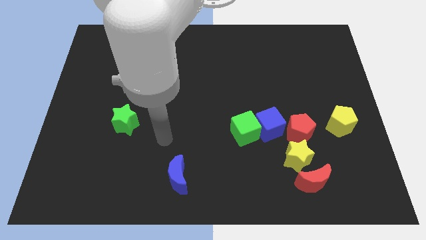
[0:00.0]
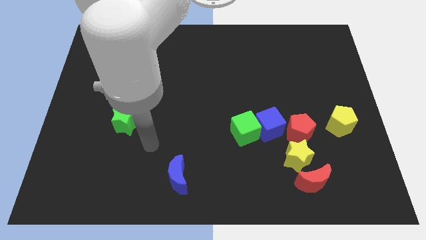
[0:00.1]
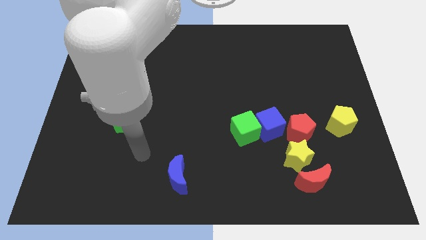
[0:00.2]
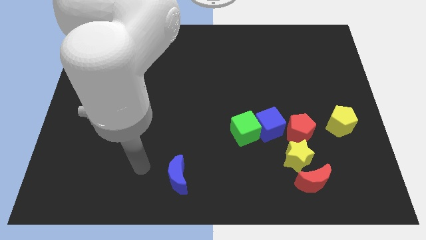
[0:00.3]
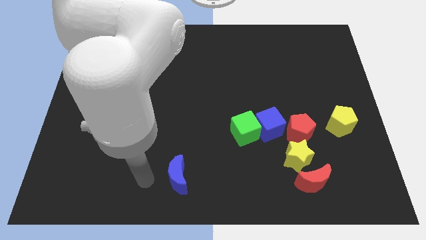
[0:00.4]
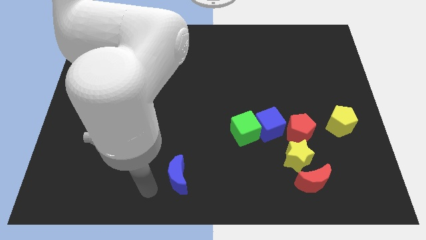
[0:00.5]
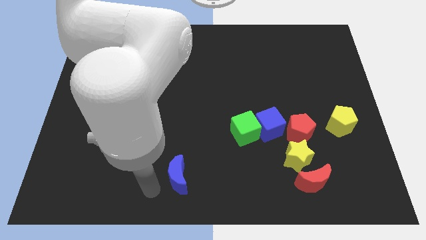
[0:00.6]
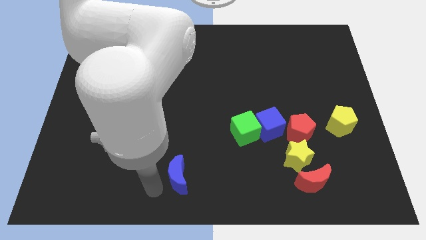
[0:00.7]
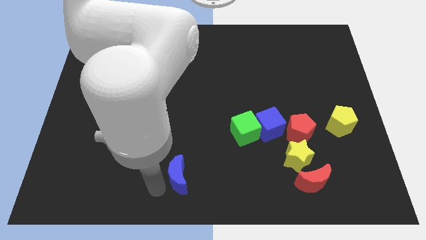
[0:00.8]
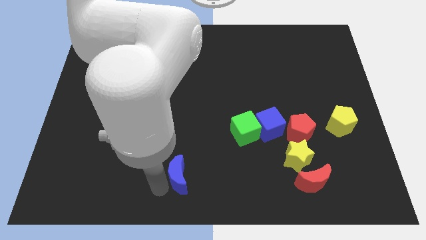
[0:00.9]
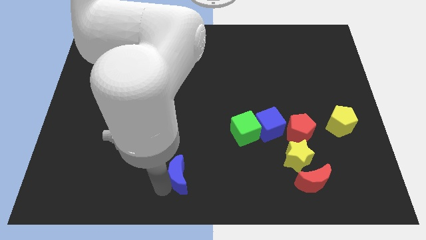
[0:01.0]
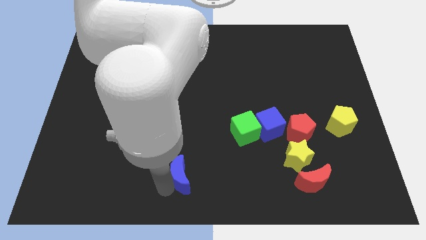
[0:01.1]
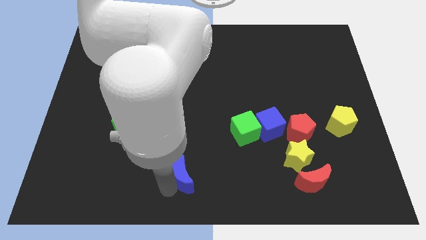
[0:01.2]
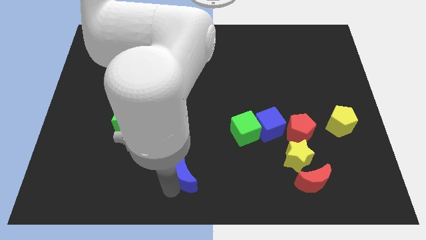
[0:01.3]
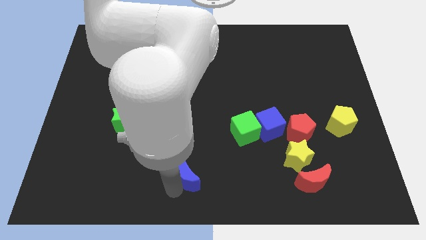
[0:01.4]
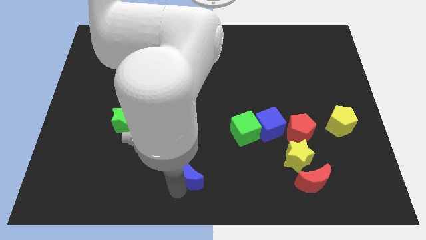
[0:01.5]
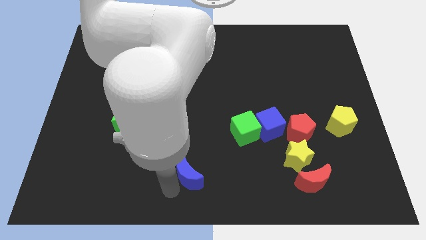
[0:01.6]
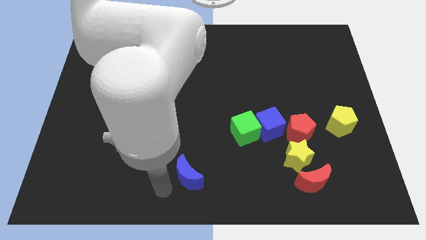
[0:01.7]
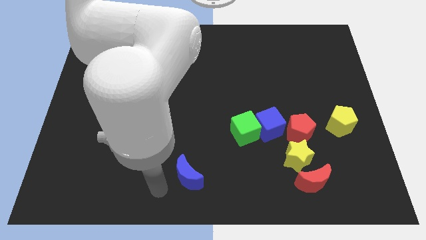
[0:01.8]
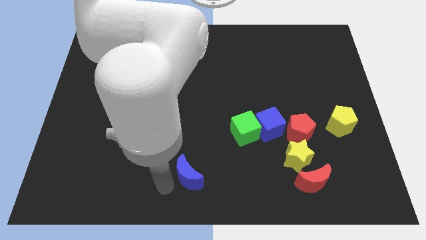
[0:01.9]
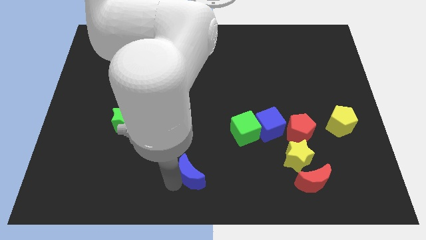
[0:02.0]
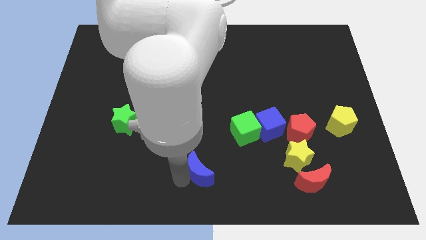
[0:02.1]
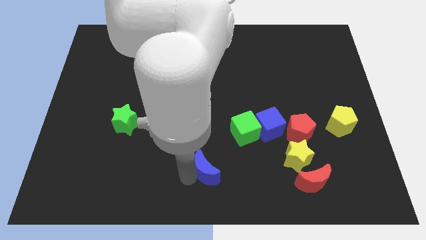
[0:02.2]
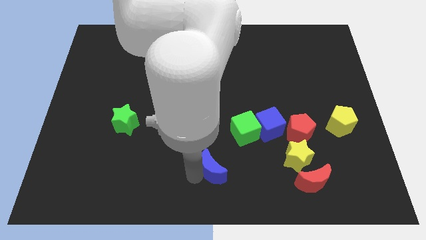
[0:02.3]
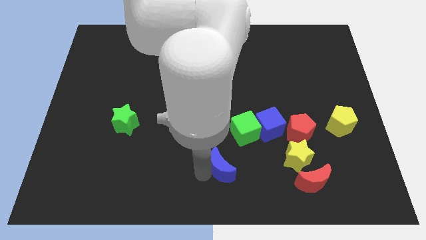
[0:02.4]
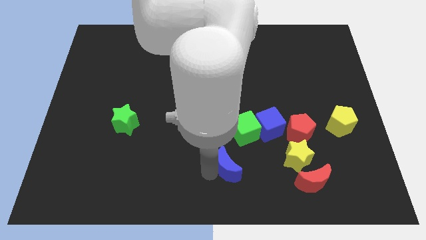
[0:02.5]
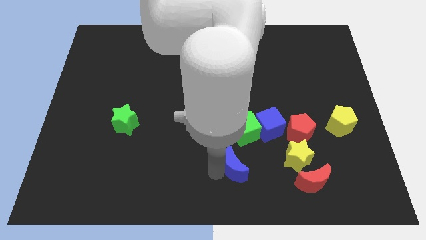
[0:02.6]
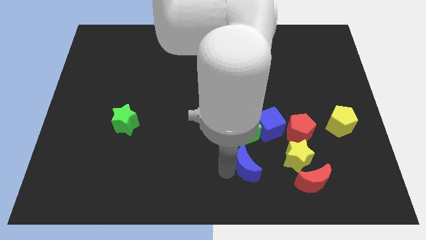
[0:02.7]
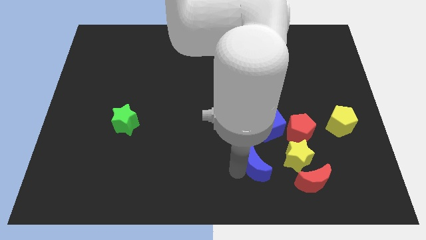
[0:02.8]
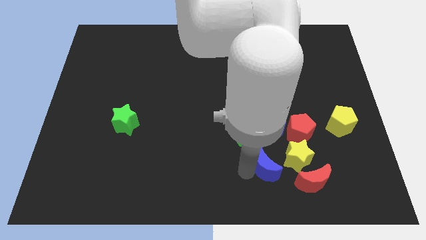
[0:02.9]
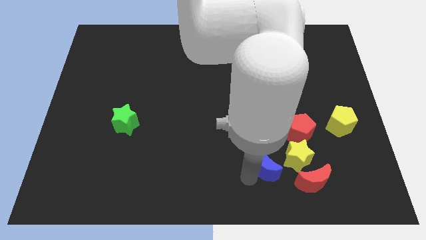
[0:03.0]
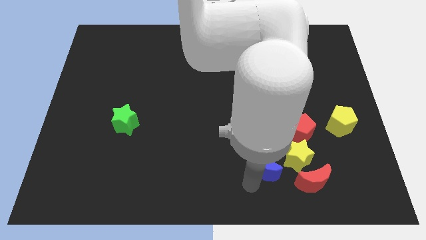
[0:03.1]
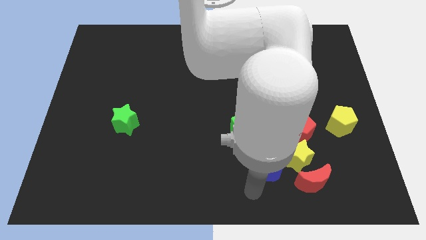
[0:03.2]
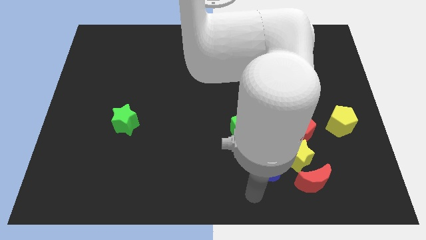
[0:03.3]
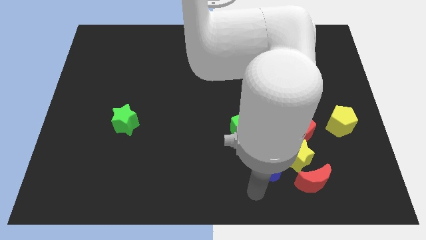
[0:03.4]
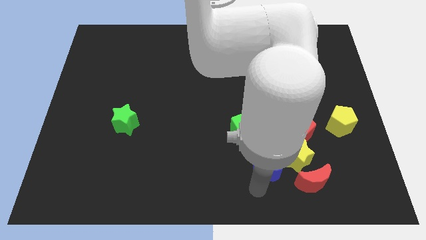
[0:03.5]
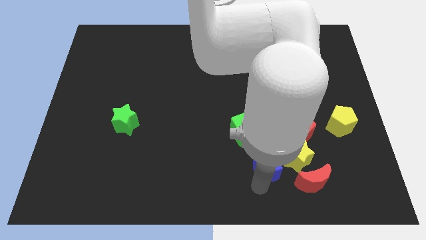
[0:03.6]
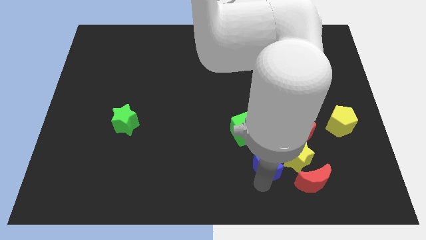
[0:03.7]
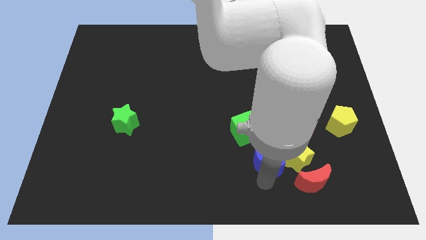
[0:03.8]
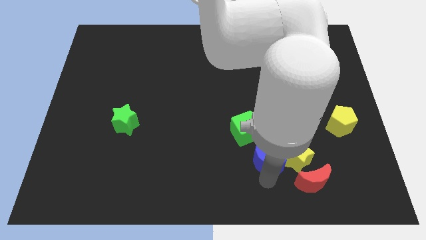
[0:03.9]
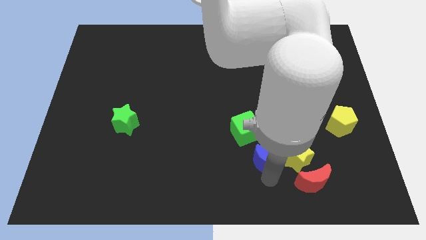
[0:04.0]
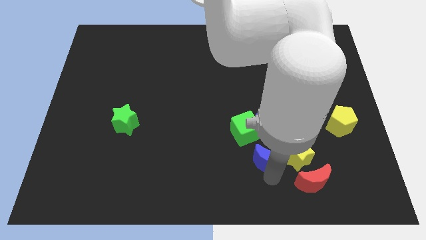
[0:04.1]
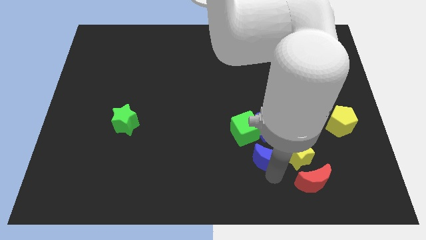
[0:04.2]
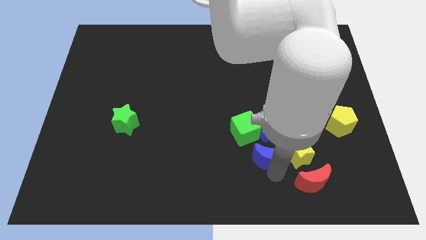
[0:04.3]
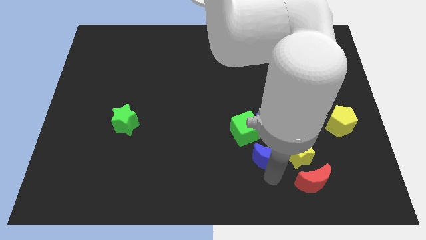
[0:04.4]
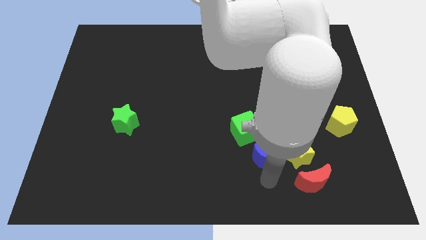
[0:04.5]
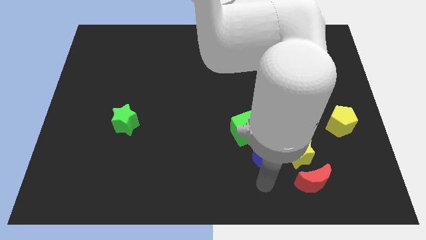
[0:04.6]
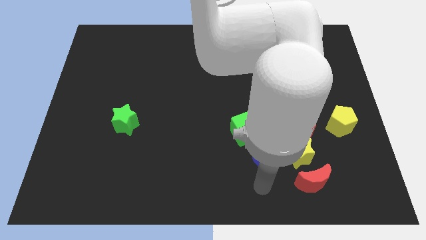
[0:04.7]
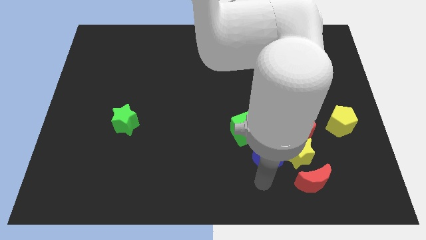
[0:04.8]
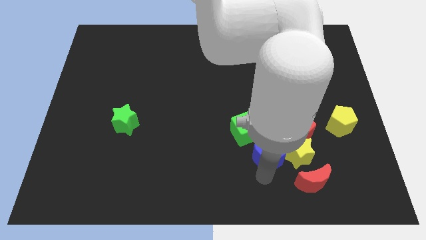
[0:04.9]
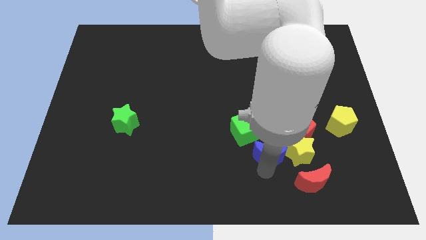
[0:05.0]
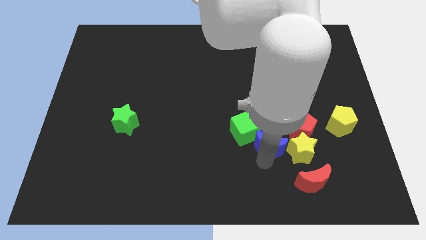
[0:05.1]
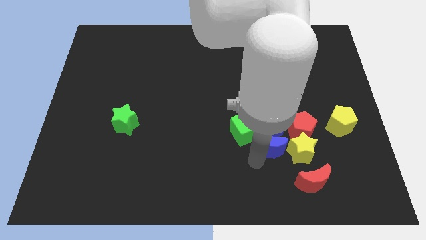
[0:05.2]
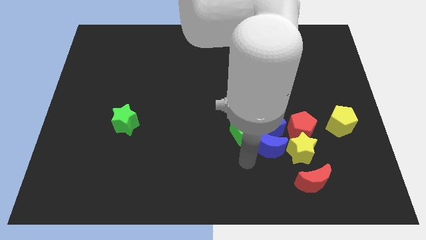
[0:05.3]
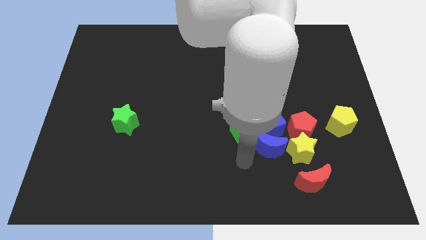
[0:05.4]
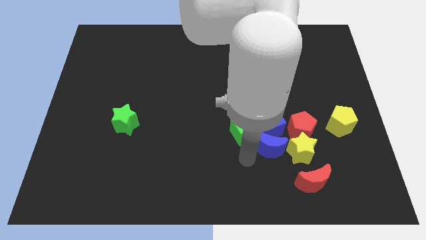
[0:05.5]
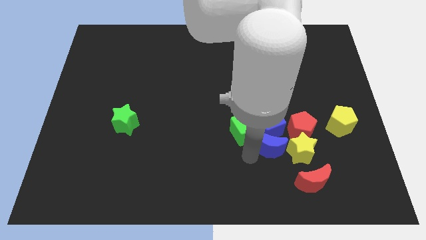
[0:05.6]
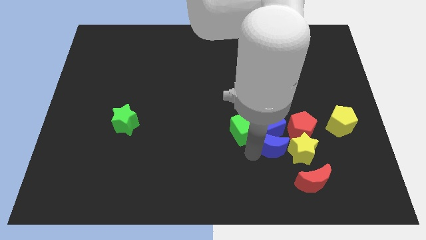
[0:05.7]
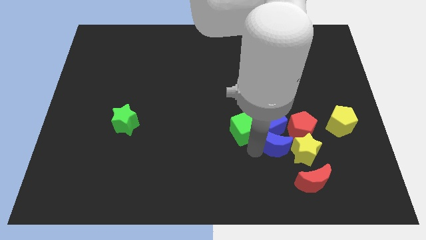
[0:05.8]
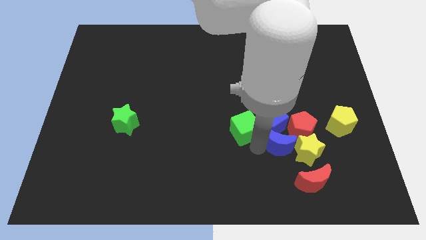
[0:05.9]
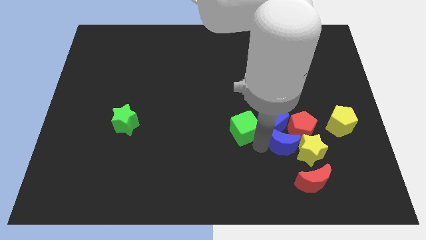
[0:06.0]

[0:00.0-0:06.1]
move the blue moon towards the red pentagon

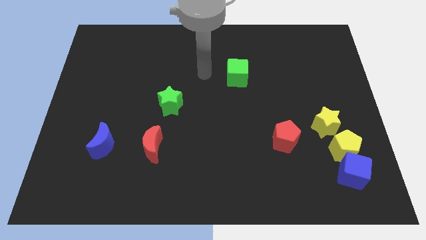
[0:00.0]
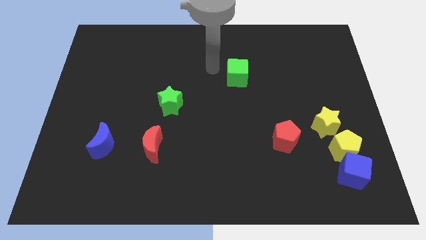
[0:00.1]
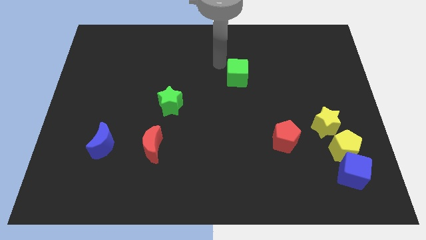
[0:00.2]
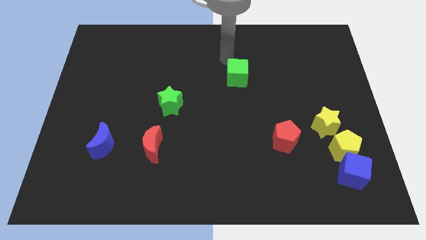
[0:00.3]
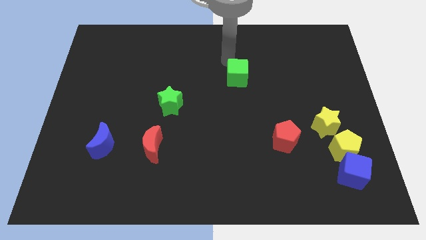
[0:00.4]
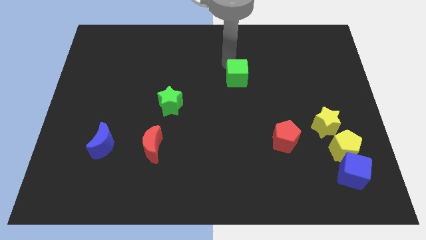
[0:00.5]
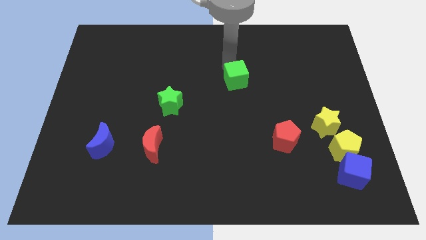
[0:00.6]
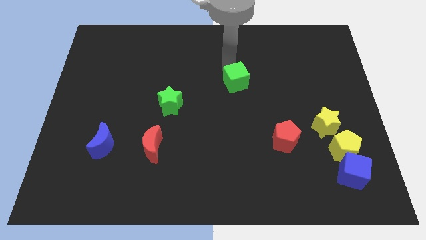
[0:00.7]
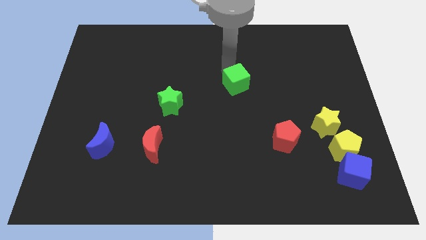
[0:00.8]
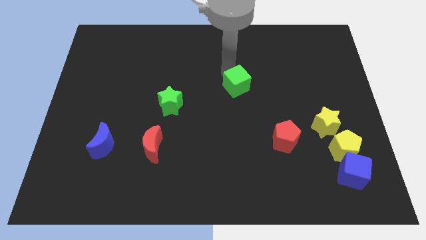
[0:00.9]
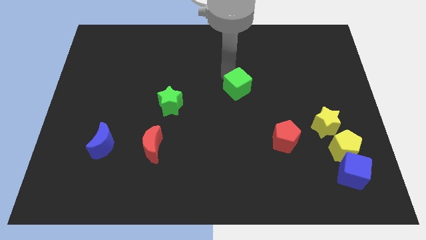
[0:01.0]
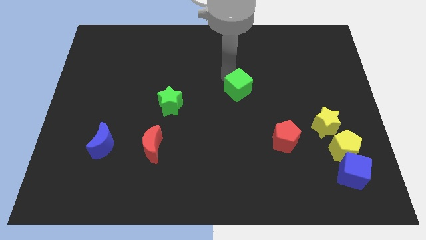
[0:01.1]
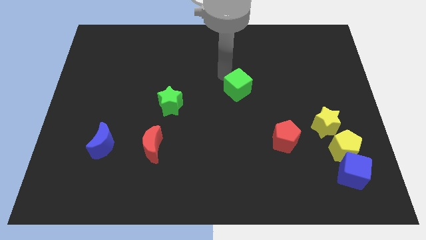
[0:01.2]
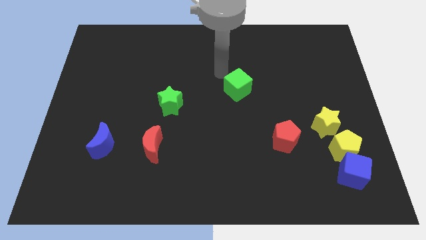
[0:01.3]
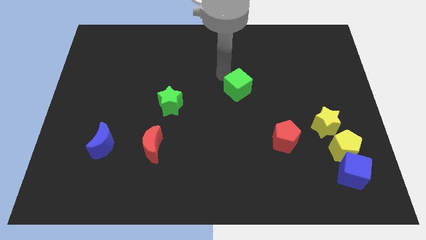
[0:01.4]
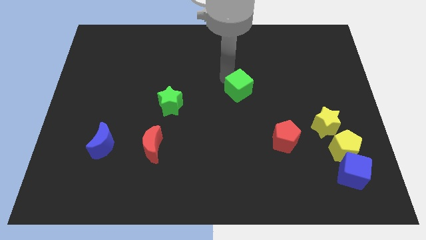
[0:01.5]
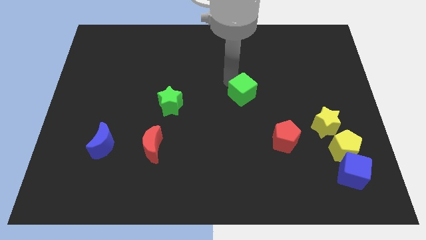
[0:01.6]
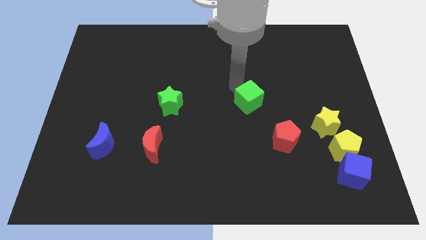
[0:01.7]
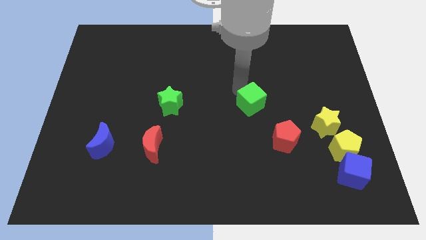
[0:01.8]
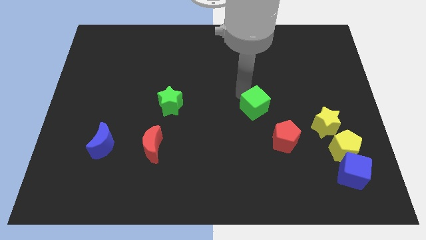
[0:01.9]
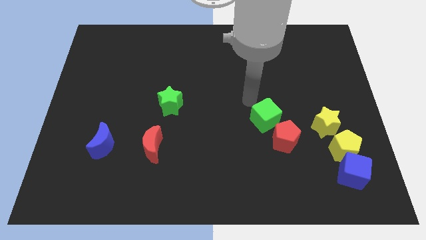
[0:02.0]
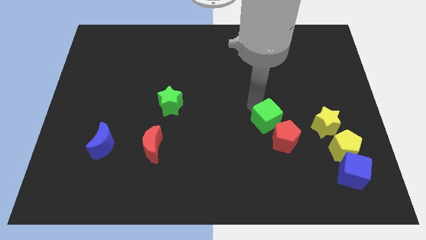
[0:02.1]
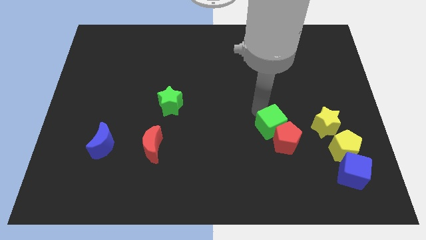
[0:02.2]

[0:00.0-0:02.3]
move the green cube close to the red pentagon
